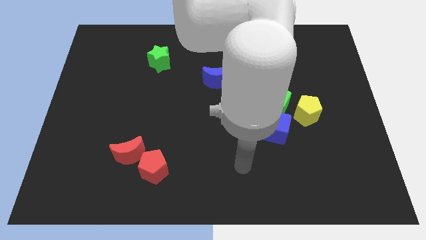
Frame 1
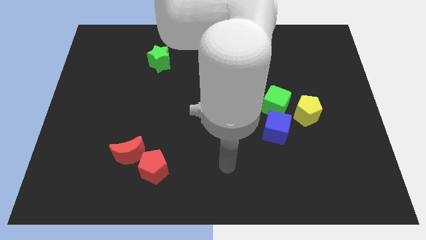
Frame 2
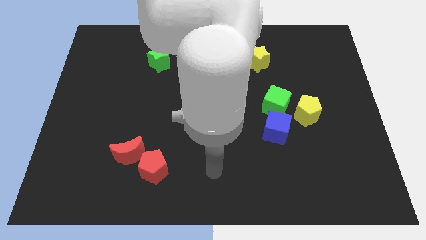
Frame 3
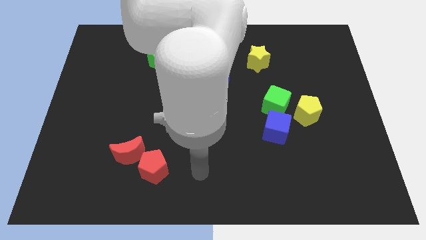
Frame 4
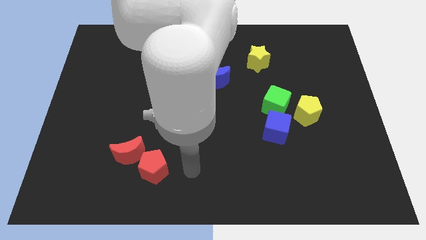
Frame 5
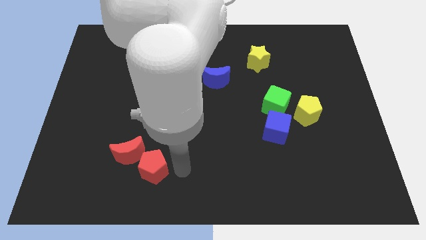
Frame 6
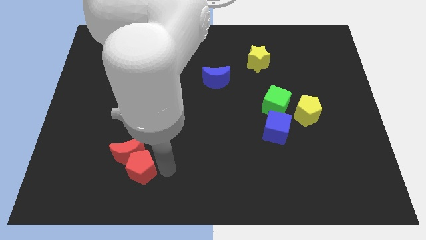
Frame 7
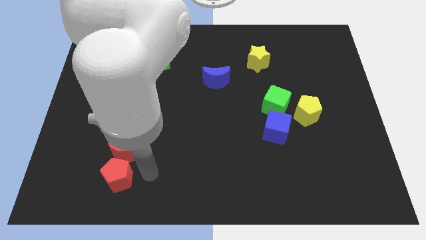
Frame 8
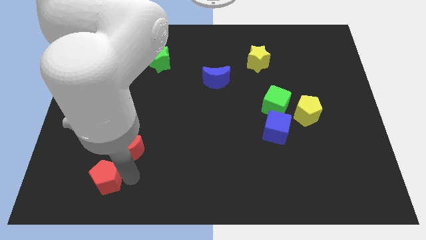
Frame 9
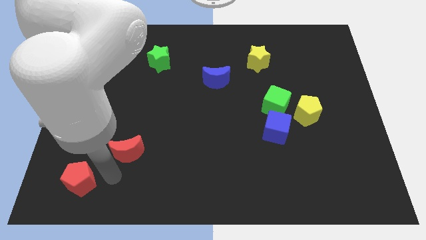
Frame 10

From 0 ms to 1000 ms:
move the red moon away from the red pentagon

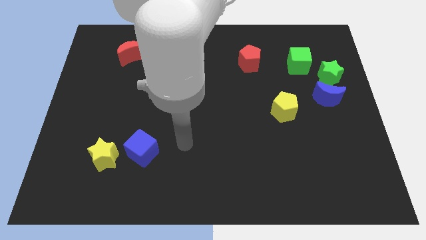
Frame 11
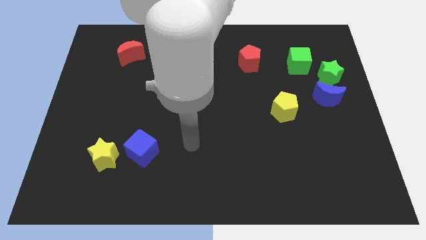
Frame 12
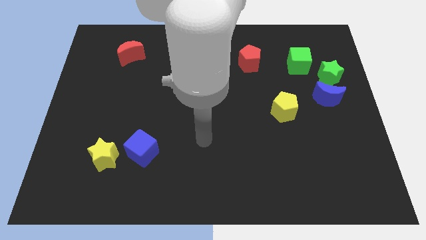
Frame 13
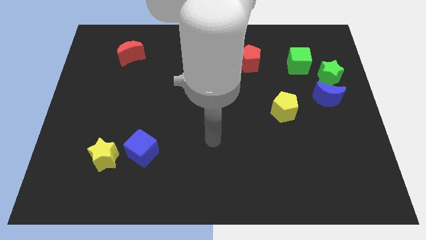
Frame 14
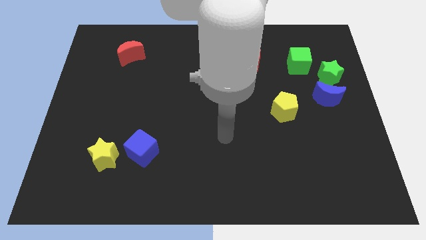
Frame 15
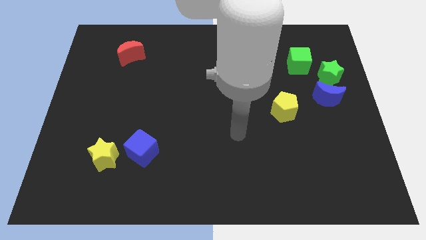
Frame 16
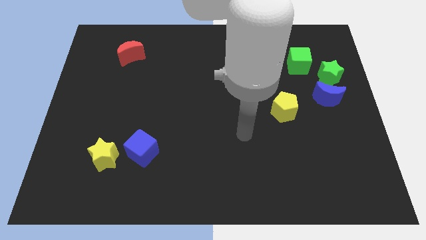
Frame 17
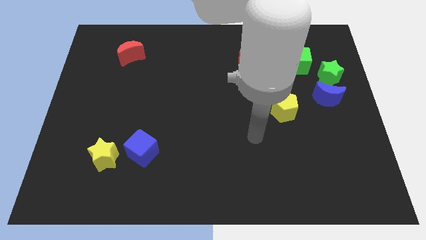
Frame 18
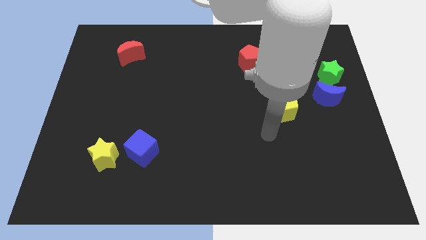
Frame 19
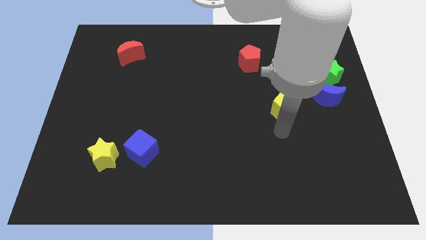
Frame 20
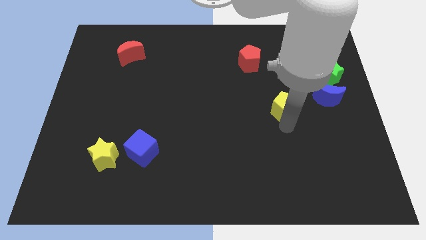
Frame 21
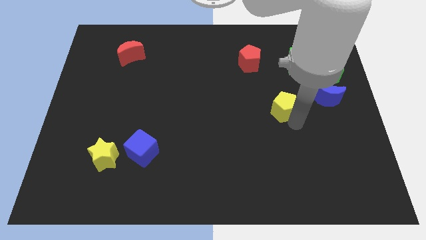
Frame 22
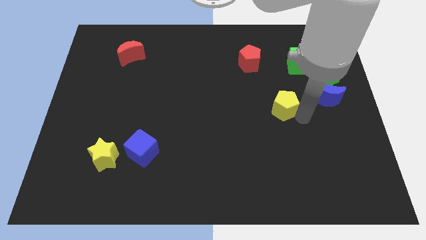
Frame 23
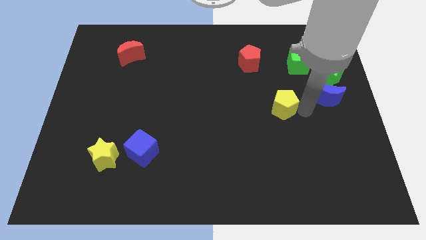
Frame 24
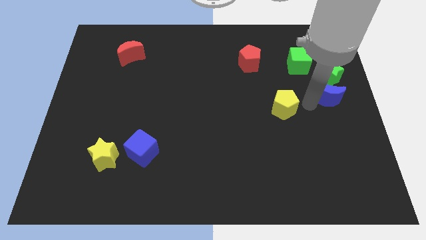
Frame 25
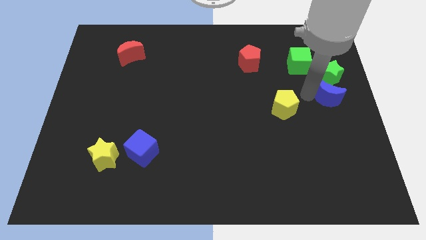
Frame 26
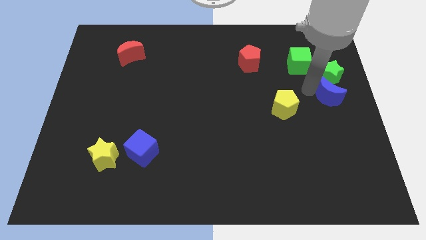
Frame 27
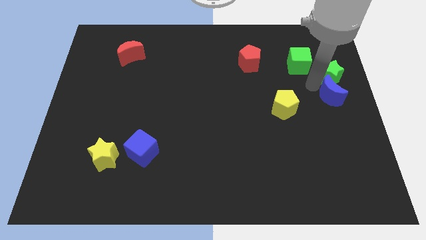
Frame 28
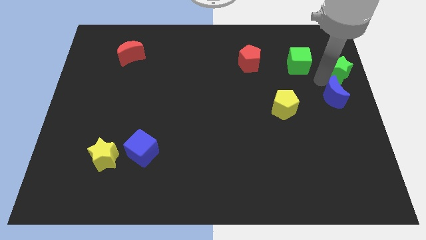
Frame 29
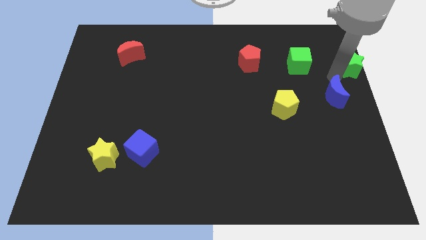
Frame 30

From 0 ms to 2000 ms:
separate the blue moon from the green star

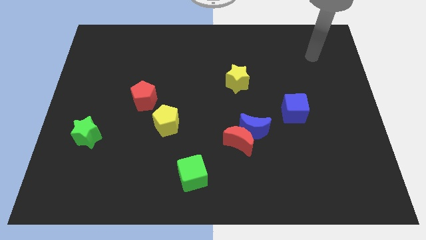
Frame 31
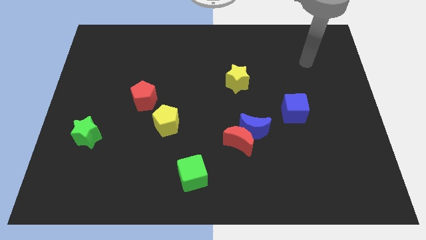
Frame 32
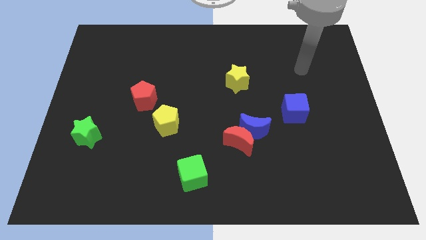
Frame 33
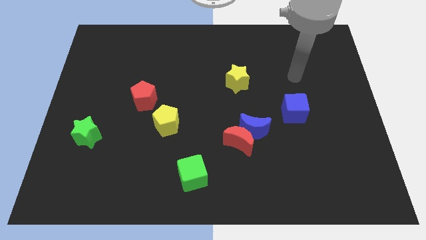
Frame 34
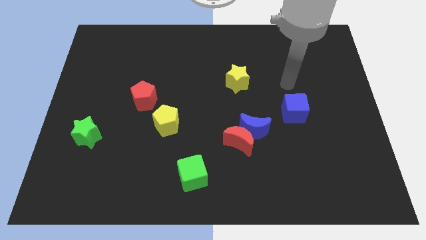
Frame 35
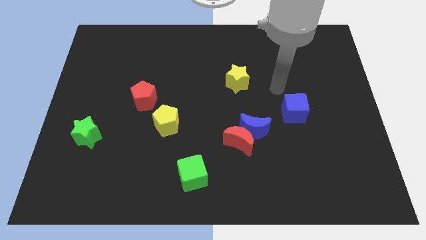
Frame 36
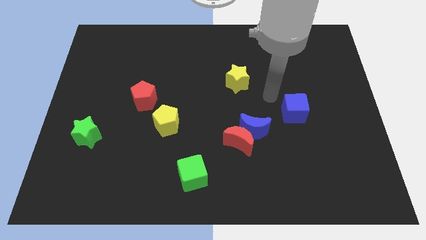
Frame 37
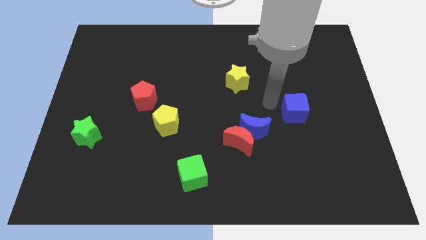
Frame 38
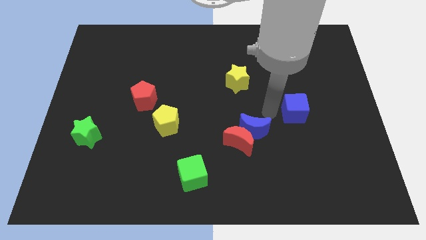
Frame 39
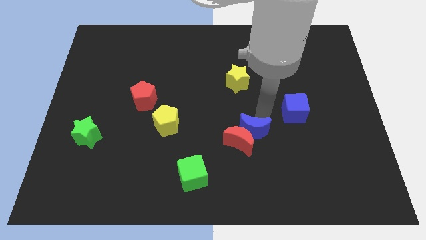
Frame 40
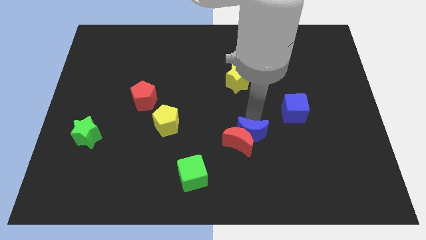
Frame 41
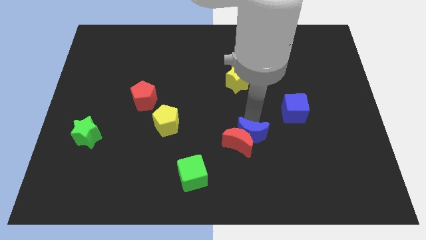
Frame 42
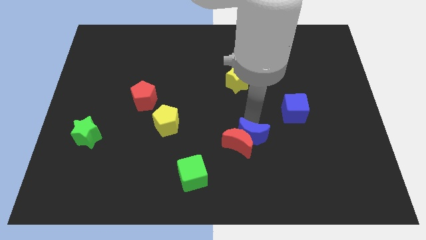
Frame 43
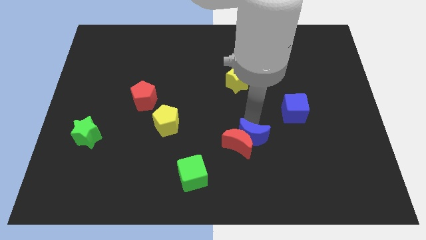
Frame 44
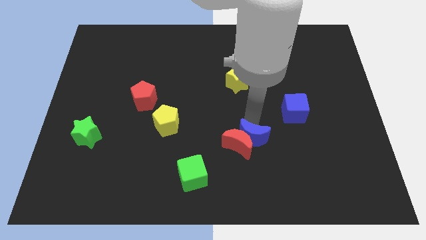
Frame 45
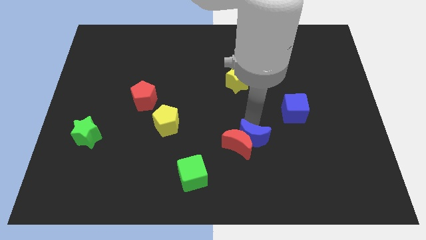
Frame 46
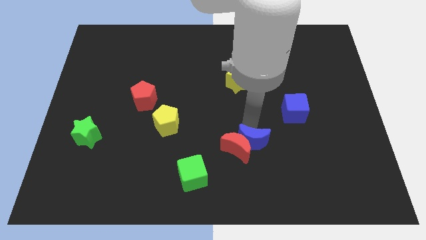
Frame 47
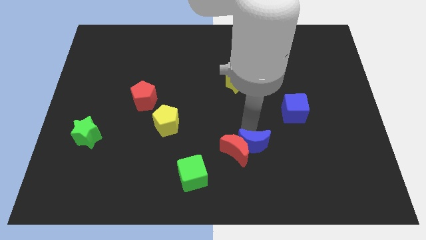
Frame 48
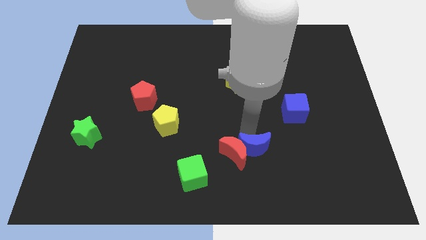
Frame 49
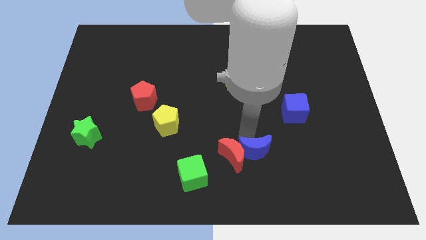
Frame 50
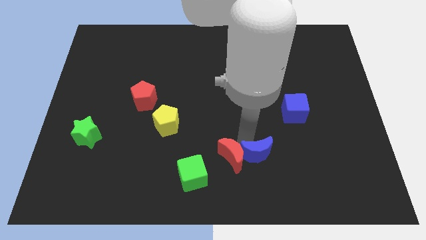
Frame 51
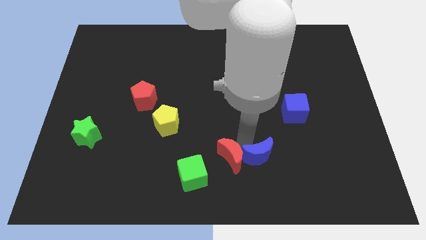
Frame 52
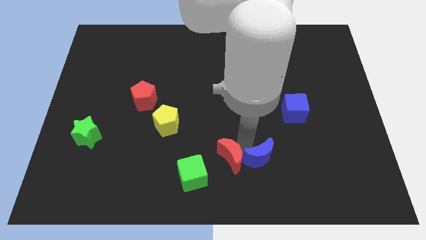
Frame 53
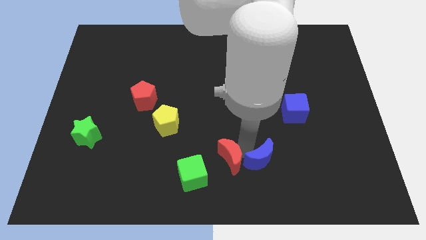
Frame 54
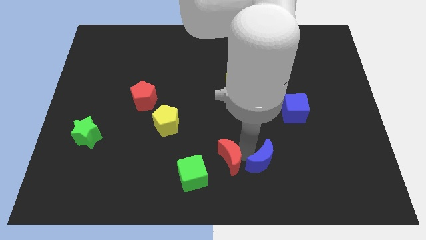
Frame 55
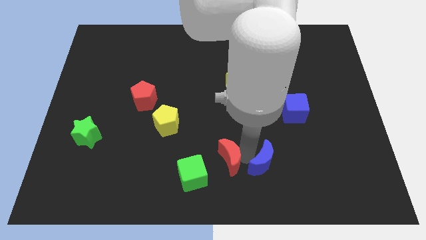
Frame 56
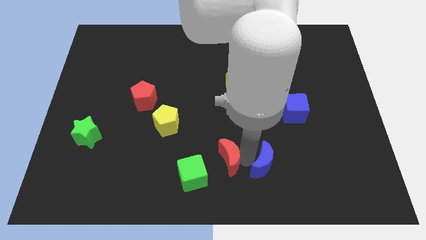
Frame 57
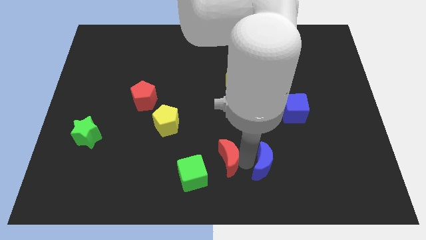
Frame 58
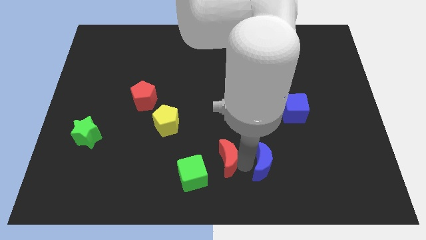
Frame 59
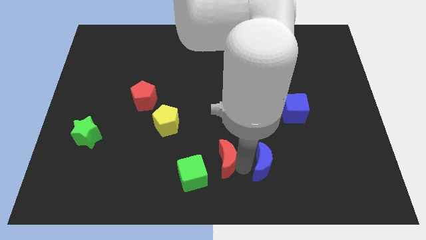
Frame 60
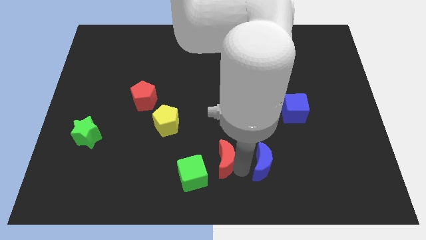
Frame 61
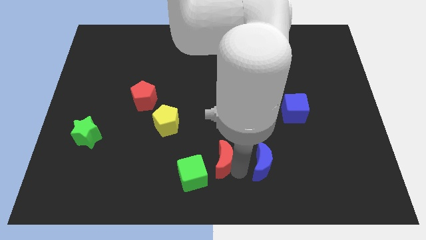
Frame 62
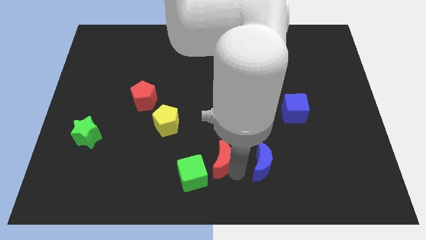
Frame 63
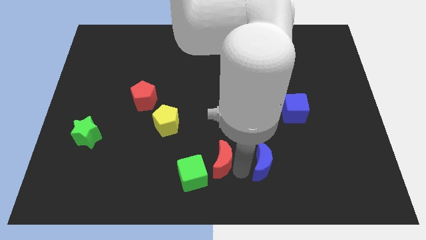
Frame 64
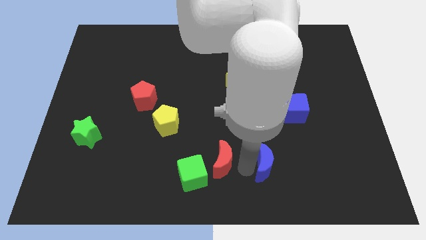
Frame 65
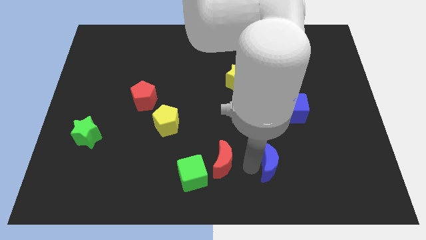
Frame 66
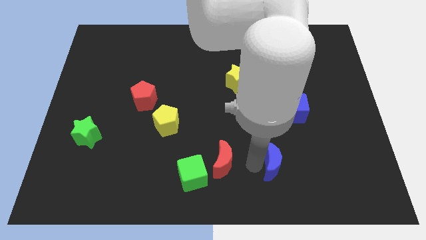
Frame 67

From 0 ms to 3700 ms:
move the red moon away from the blue moon

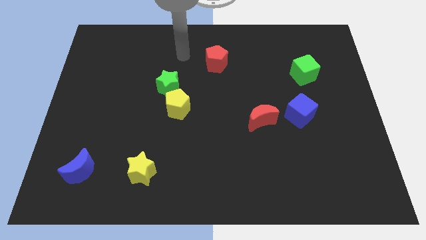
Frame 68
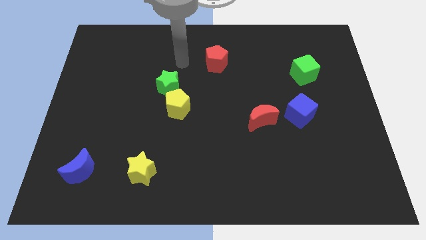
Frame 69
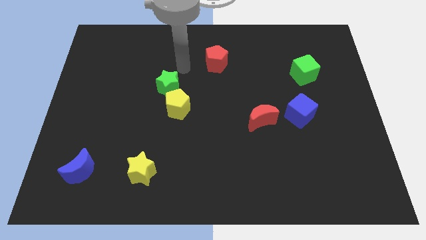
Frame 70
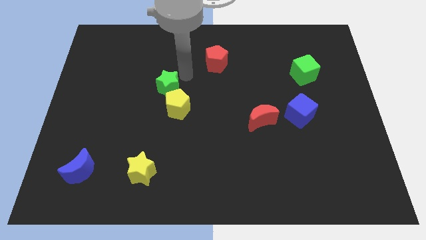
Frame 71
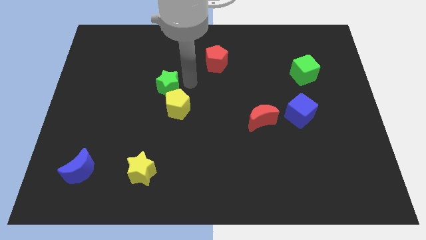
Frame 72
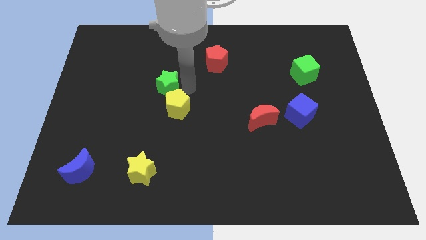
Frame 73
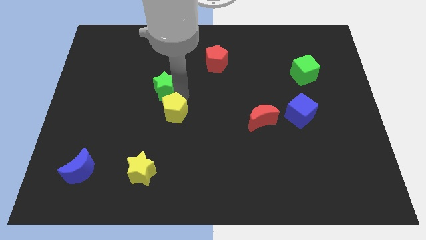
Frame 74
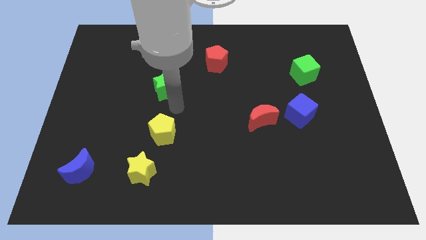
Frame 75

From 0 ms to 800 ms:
move the green star away from the yellow pentagon

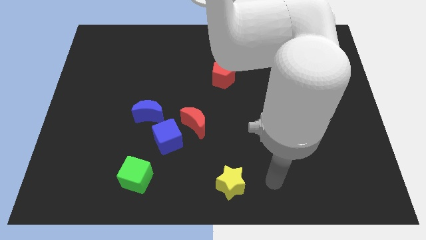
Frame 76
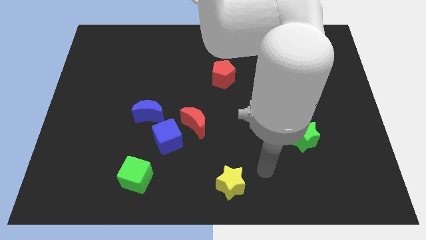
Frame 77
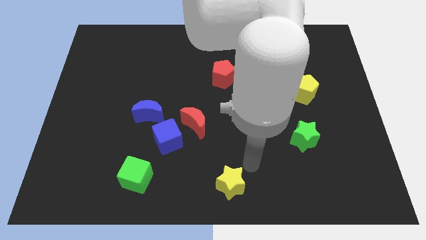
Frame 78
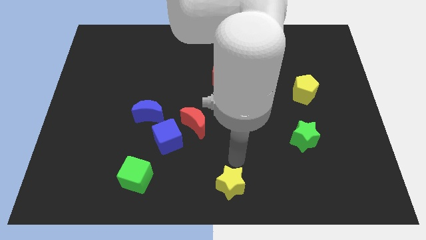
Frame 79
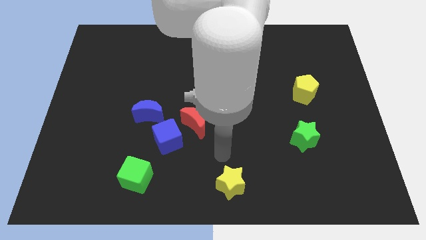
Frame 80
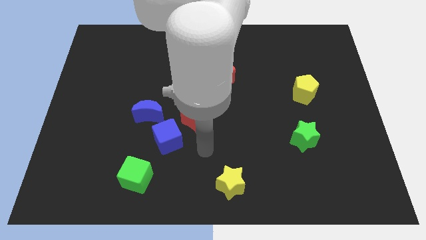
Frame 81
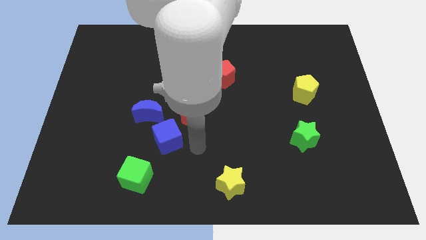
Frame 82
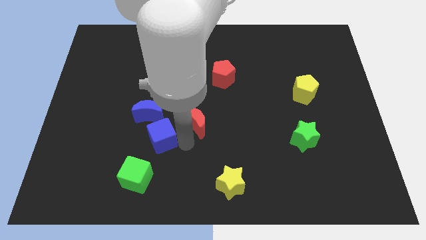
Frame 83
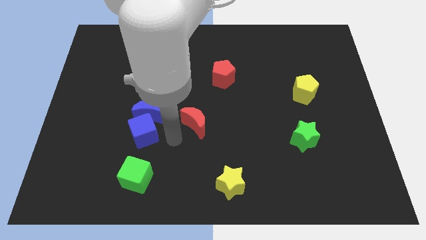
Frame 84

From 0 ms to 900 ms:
separate the red moon from the blue cube

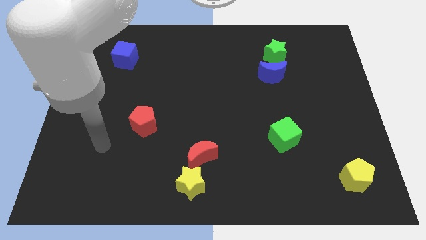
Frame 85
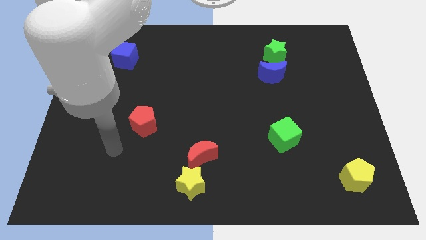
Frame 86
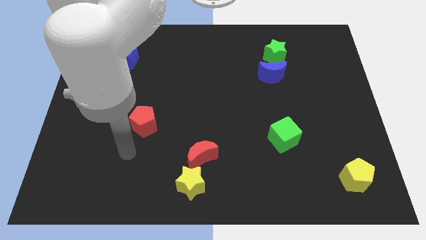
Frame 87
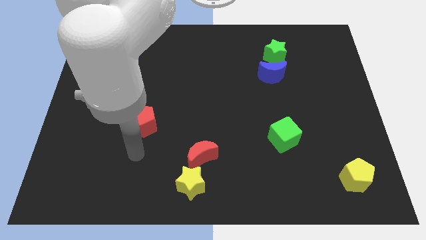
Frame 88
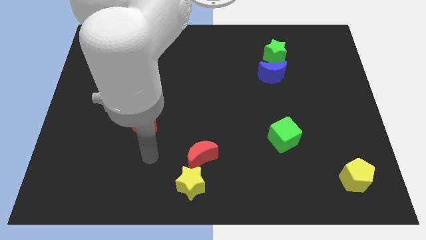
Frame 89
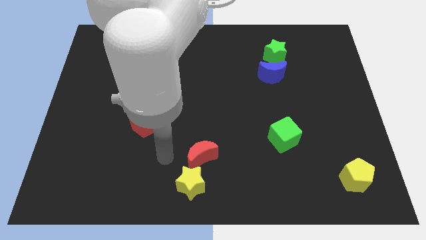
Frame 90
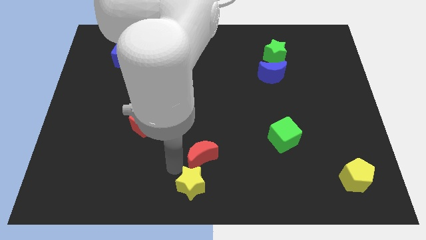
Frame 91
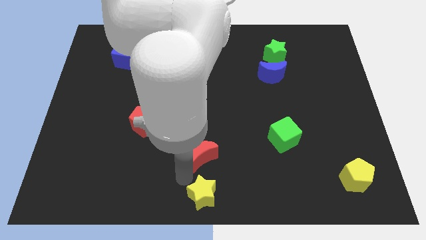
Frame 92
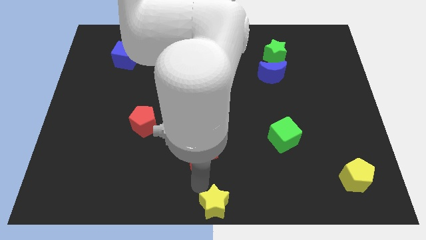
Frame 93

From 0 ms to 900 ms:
pull the red moon apart from the yellow star
